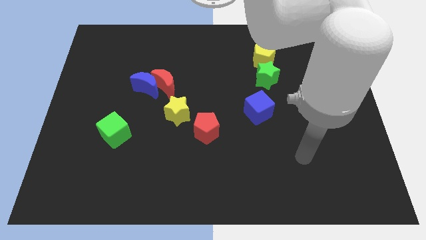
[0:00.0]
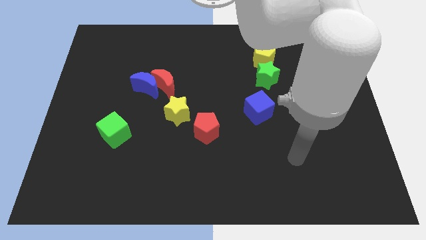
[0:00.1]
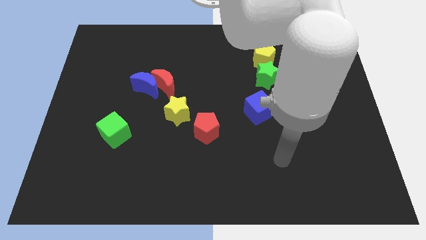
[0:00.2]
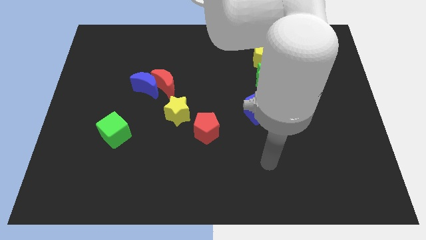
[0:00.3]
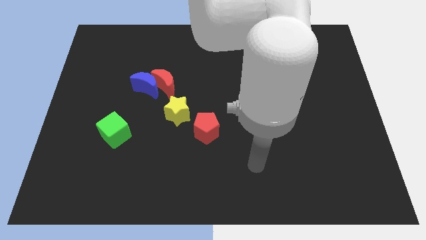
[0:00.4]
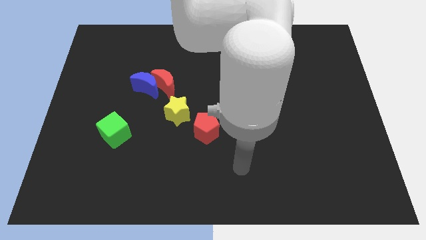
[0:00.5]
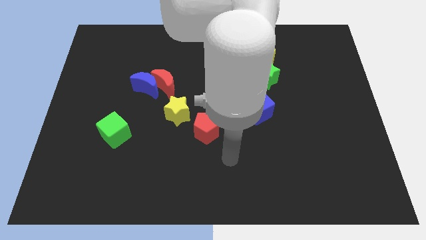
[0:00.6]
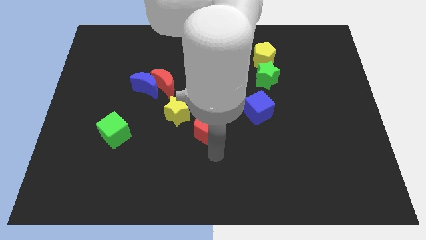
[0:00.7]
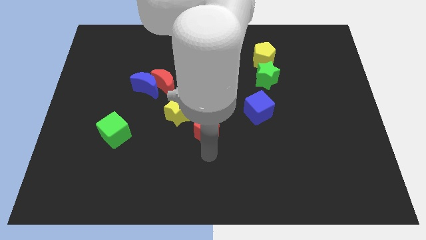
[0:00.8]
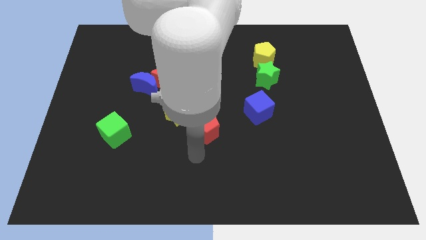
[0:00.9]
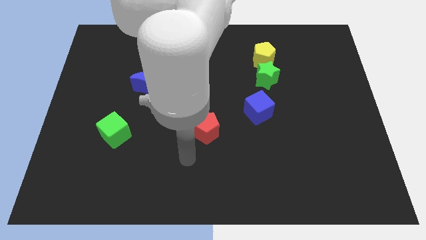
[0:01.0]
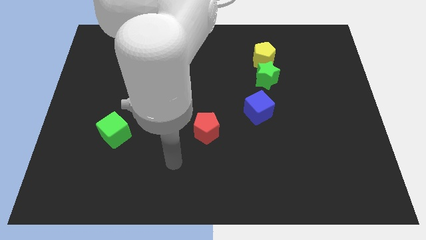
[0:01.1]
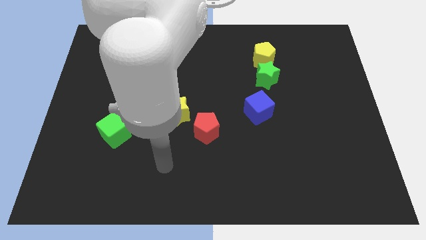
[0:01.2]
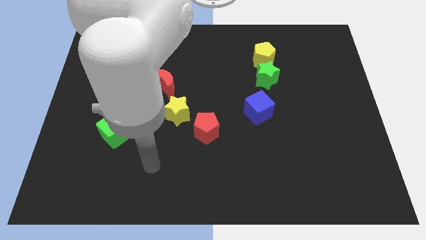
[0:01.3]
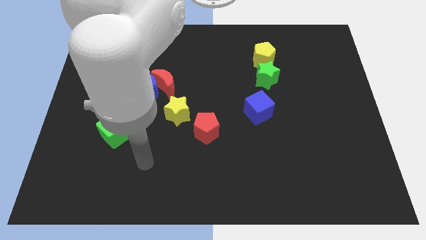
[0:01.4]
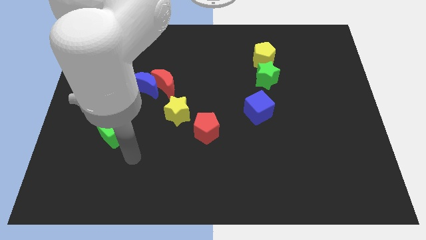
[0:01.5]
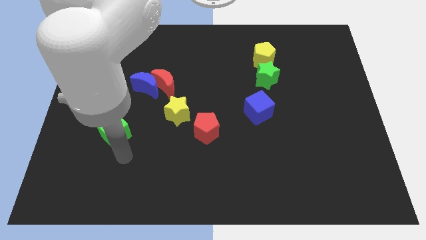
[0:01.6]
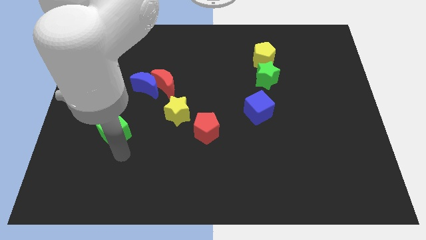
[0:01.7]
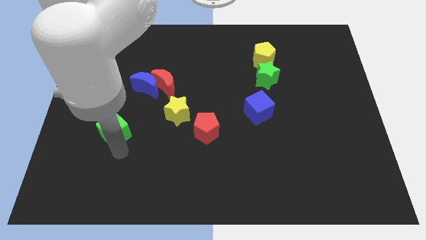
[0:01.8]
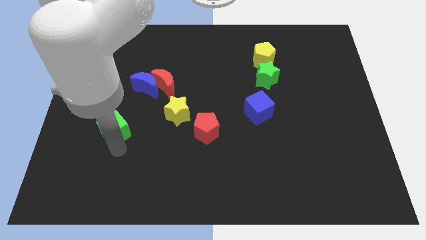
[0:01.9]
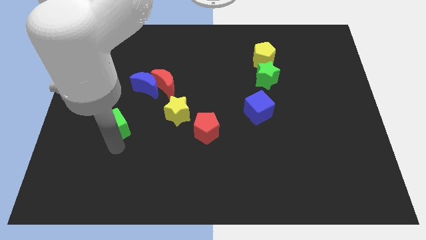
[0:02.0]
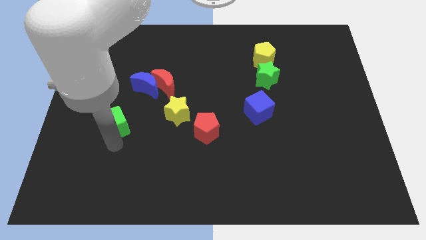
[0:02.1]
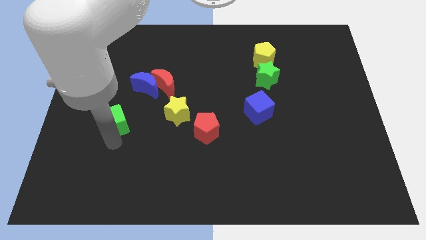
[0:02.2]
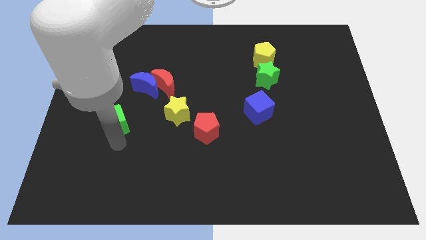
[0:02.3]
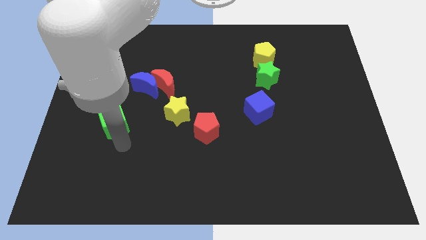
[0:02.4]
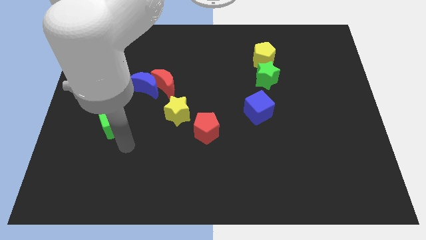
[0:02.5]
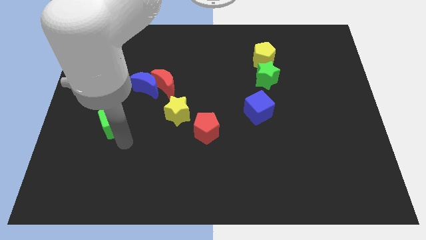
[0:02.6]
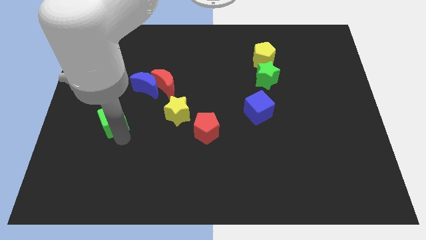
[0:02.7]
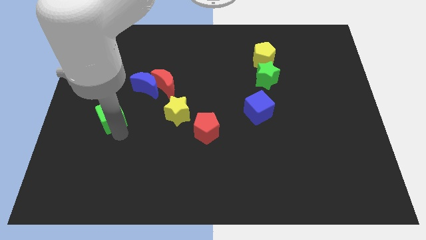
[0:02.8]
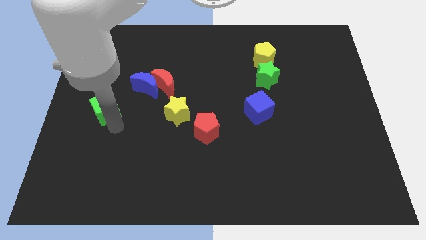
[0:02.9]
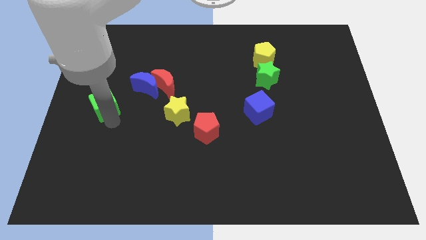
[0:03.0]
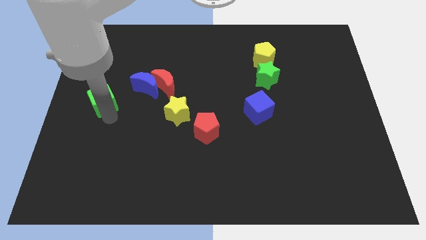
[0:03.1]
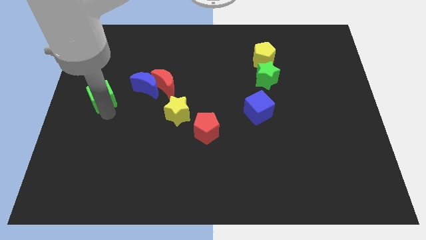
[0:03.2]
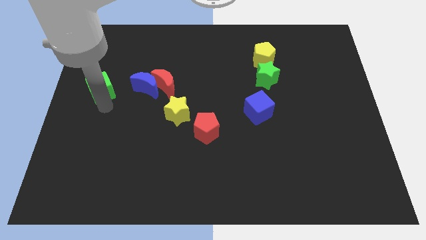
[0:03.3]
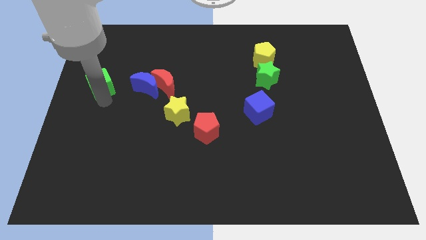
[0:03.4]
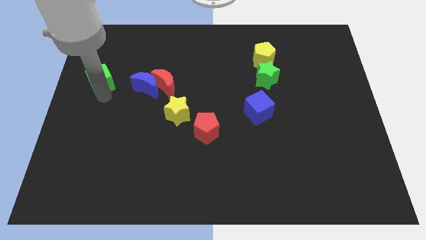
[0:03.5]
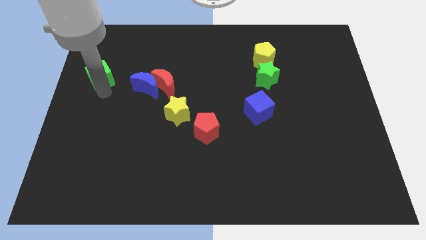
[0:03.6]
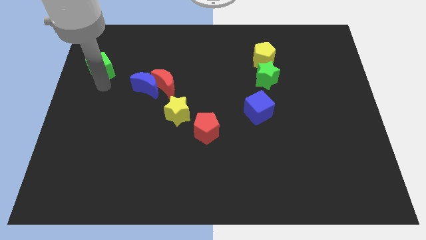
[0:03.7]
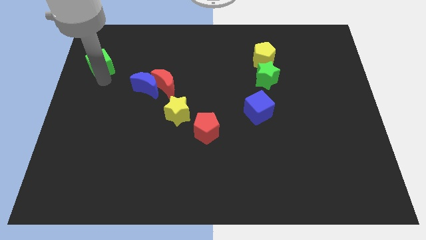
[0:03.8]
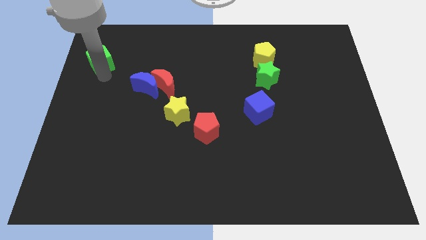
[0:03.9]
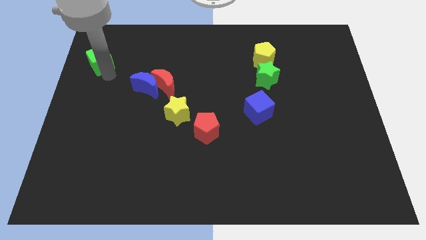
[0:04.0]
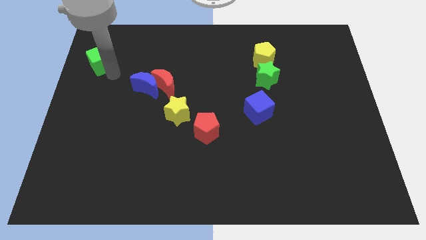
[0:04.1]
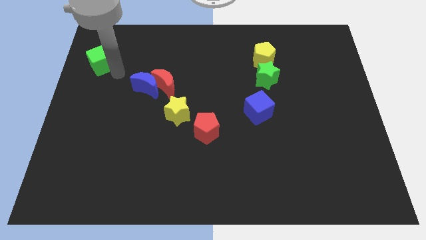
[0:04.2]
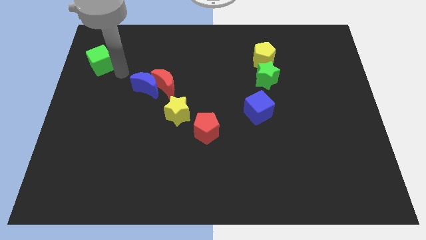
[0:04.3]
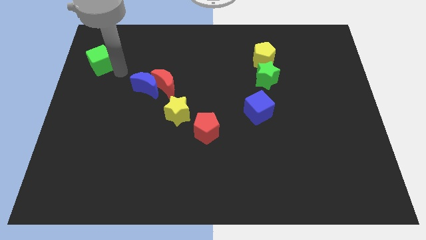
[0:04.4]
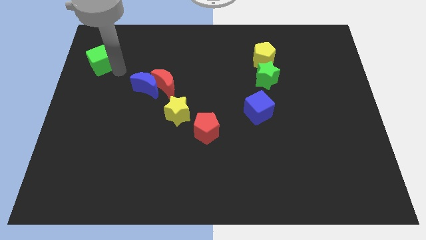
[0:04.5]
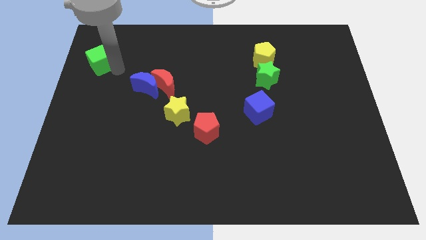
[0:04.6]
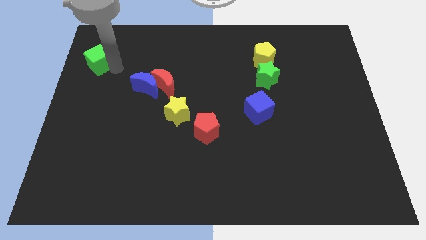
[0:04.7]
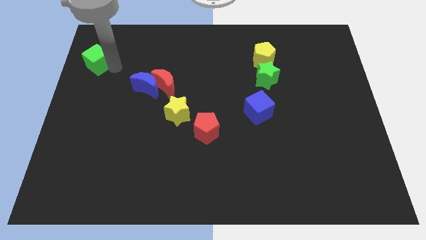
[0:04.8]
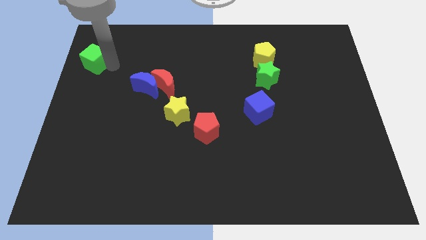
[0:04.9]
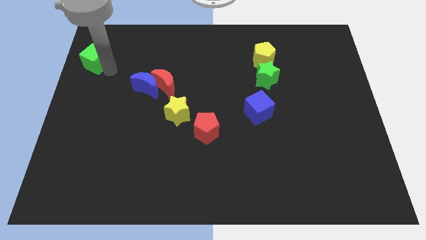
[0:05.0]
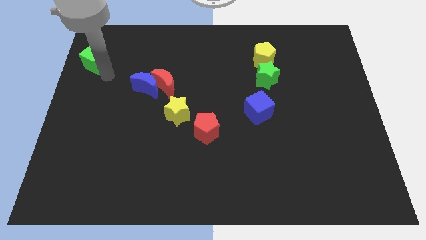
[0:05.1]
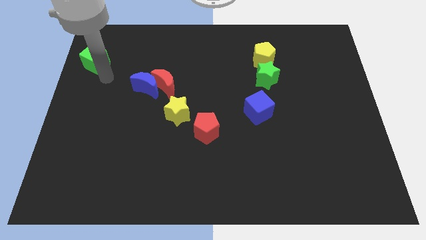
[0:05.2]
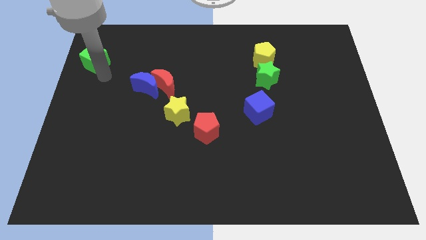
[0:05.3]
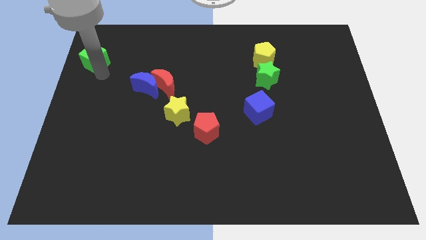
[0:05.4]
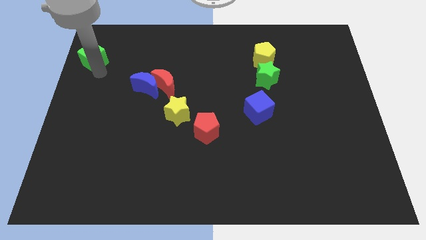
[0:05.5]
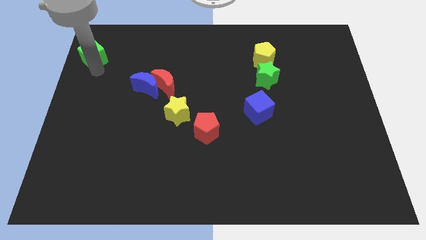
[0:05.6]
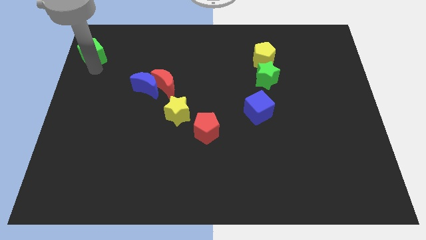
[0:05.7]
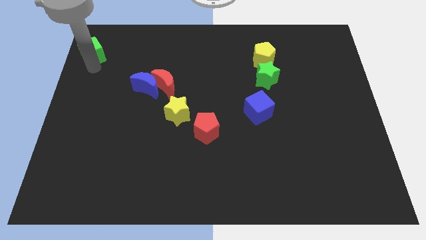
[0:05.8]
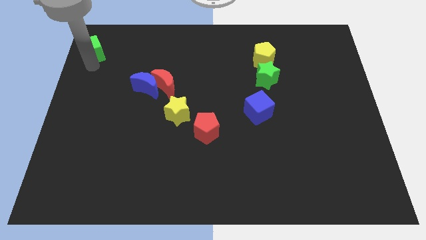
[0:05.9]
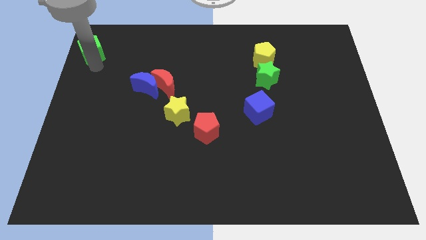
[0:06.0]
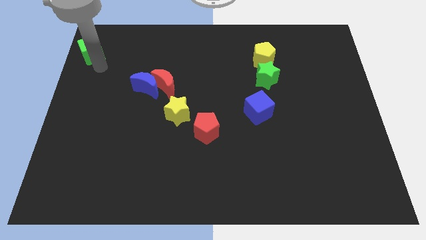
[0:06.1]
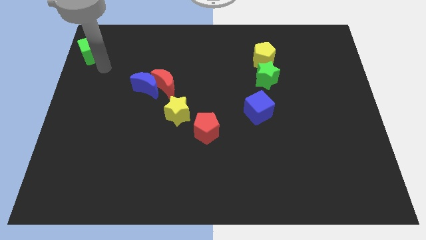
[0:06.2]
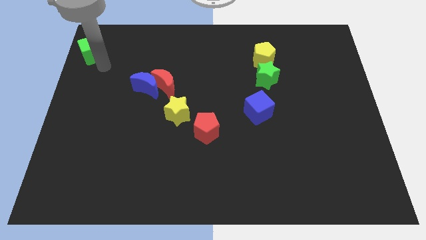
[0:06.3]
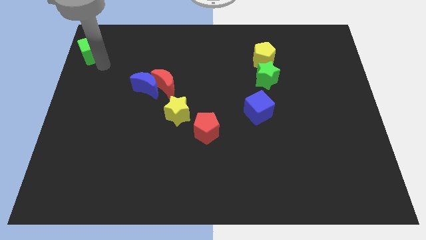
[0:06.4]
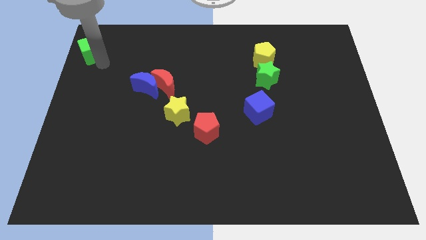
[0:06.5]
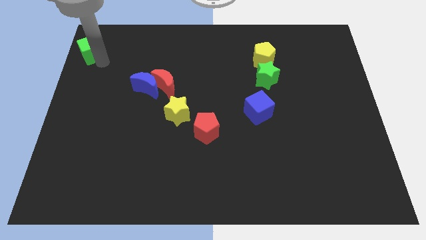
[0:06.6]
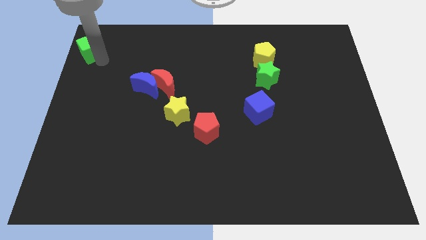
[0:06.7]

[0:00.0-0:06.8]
move the green cube to the top left
